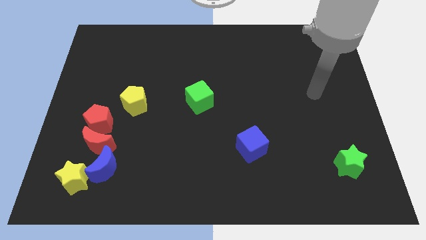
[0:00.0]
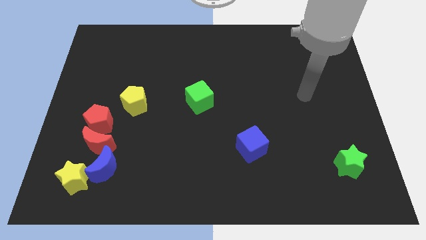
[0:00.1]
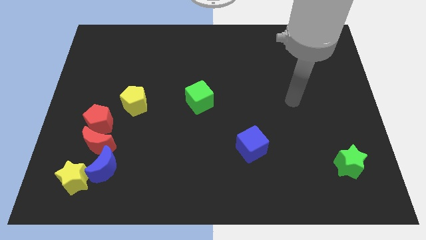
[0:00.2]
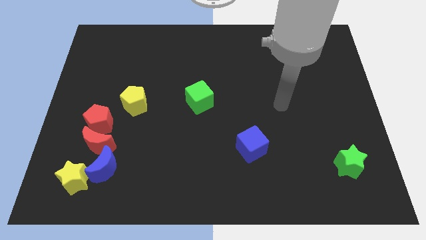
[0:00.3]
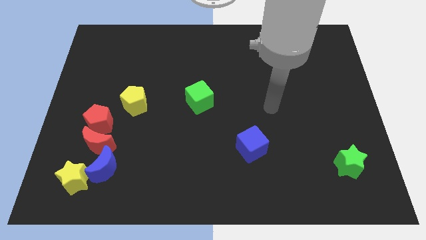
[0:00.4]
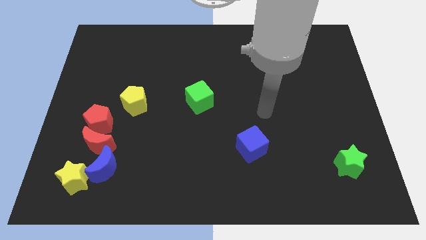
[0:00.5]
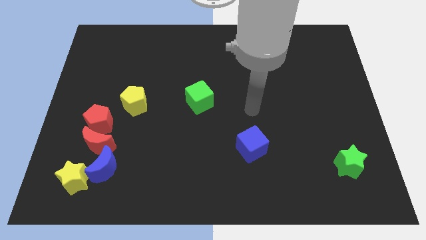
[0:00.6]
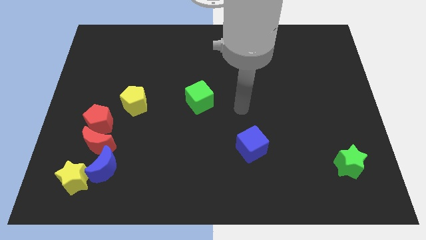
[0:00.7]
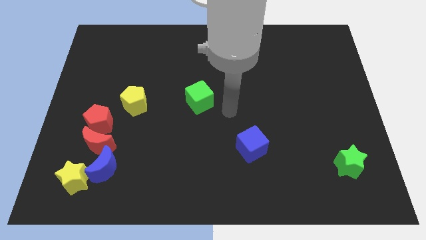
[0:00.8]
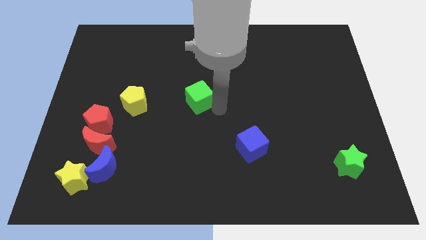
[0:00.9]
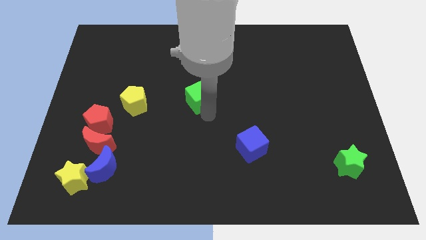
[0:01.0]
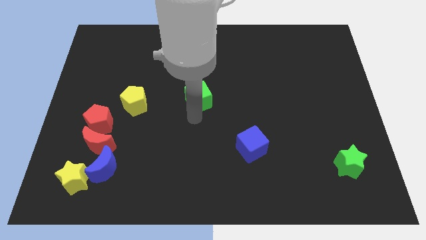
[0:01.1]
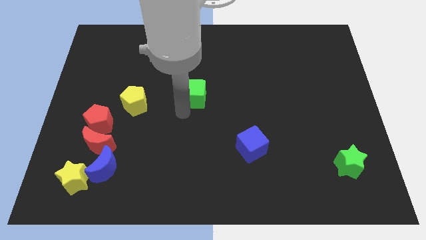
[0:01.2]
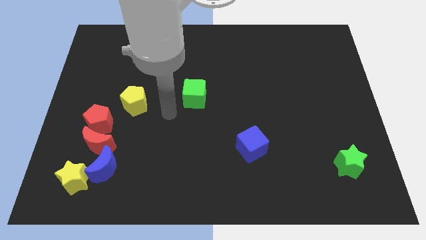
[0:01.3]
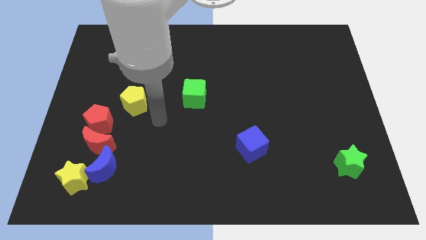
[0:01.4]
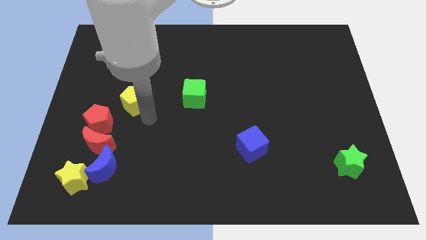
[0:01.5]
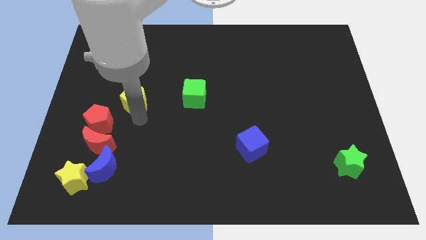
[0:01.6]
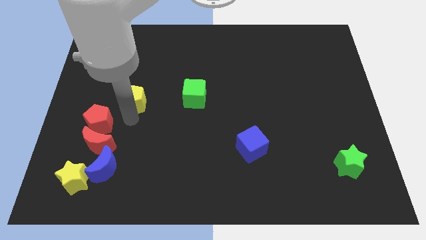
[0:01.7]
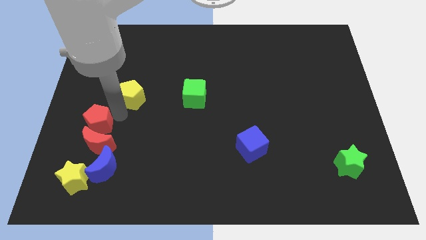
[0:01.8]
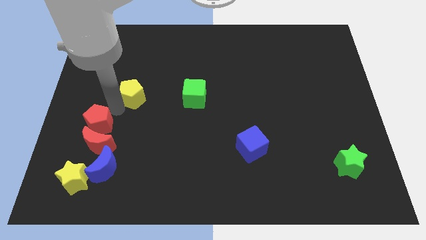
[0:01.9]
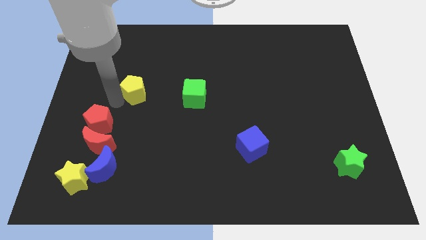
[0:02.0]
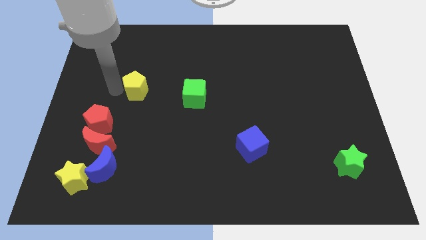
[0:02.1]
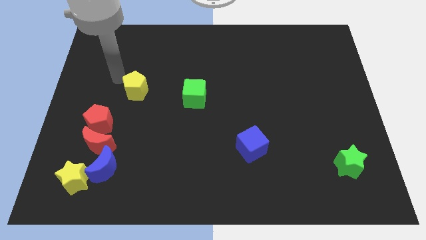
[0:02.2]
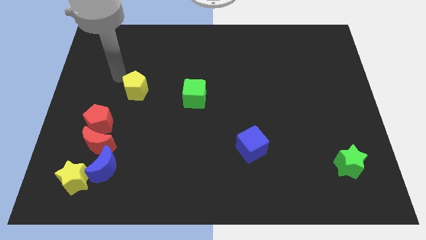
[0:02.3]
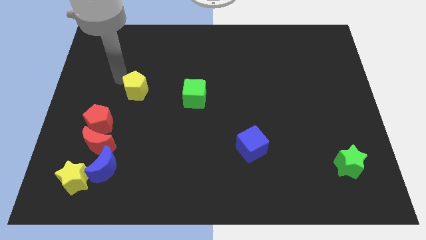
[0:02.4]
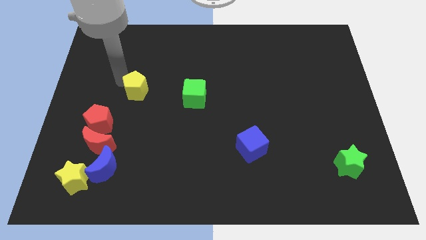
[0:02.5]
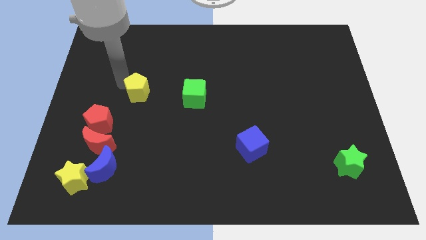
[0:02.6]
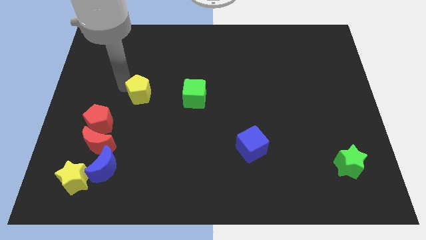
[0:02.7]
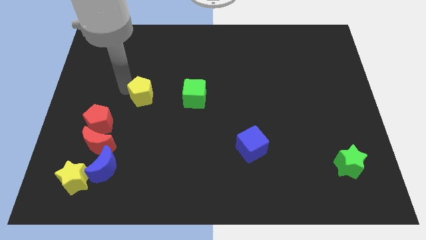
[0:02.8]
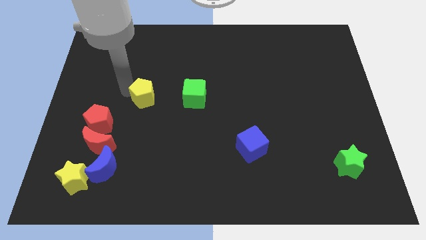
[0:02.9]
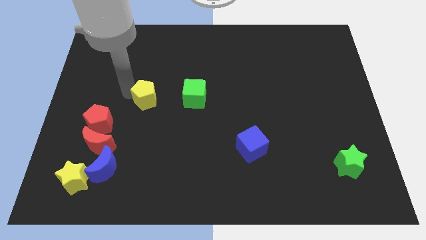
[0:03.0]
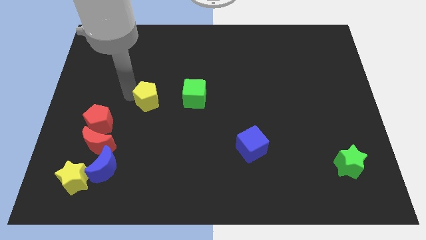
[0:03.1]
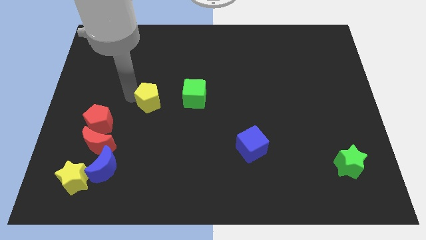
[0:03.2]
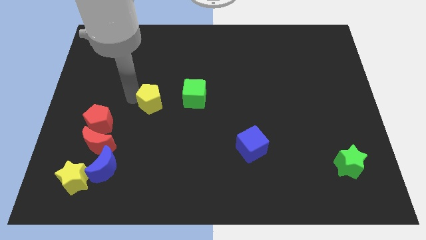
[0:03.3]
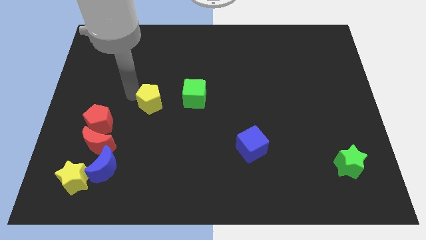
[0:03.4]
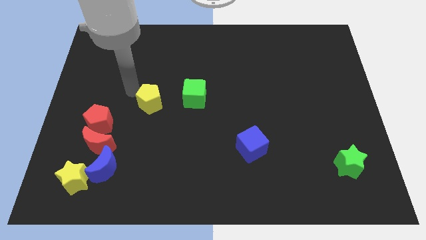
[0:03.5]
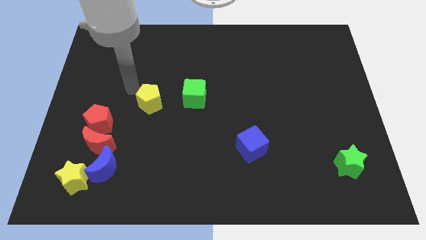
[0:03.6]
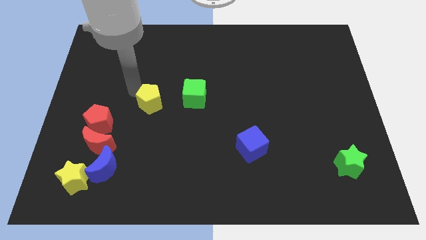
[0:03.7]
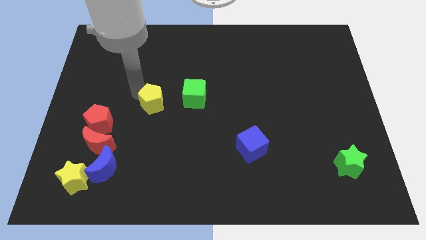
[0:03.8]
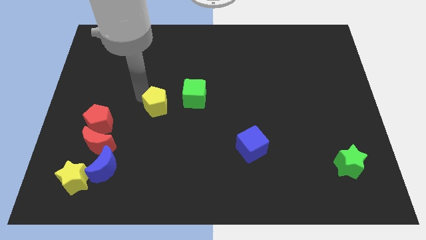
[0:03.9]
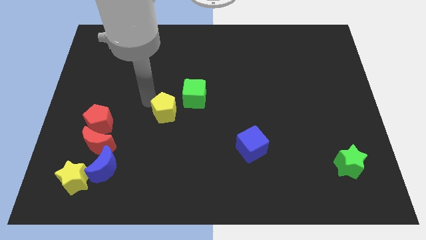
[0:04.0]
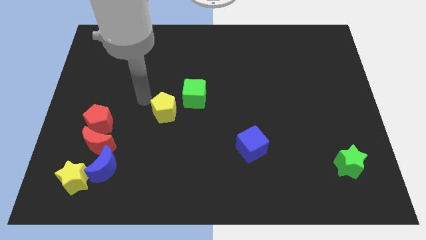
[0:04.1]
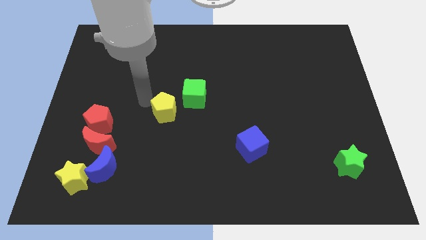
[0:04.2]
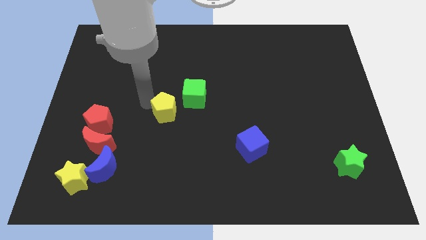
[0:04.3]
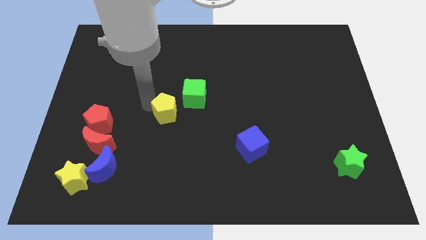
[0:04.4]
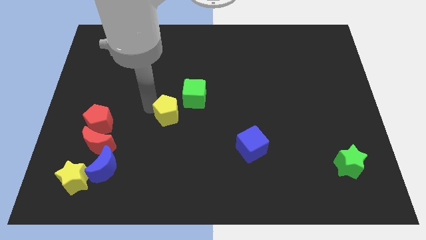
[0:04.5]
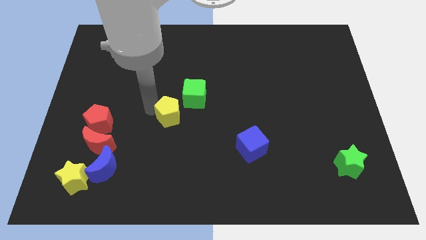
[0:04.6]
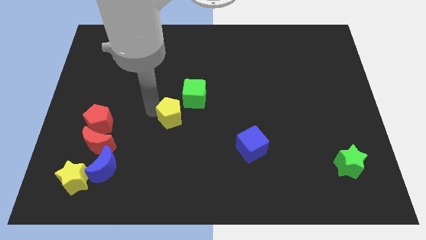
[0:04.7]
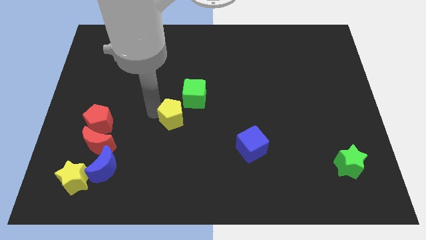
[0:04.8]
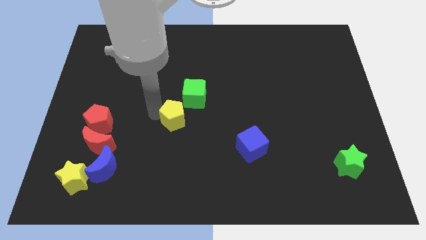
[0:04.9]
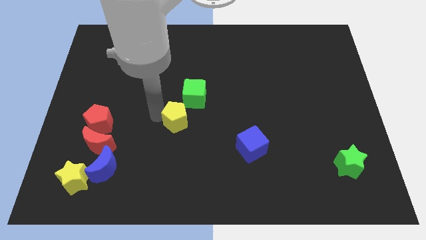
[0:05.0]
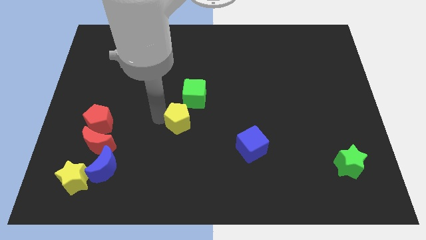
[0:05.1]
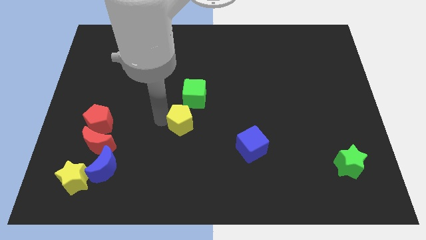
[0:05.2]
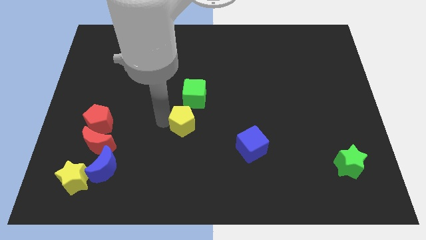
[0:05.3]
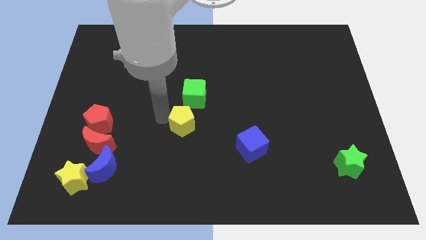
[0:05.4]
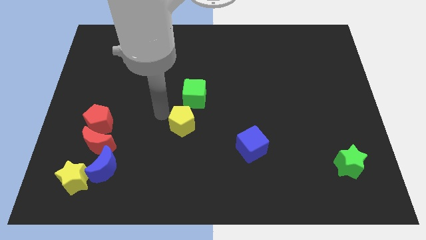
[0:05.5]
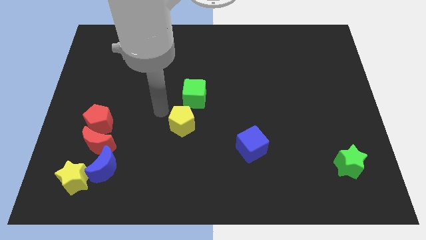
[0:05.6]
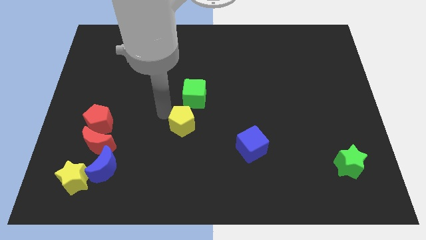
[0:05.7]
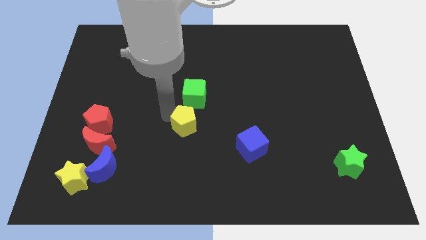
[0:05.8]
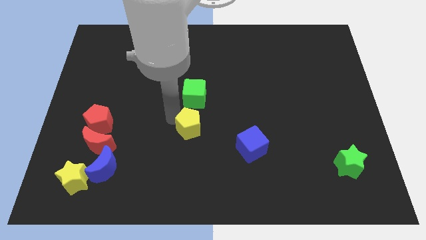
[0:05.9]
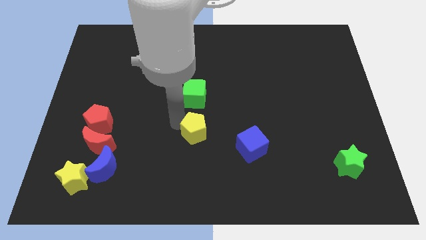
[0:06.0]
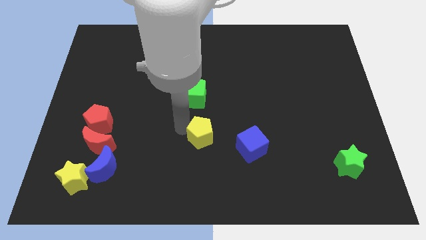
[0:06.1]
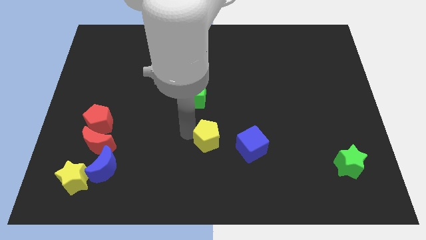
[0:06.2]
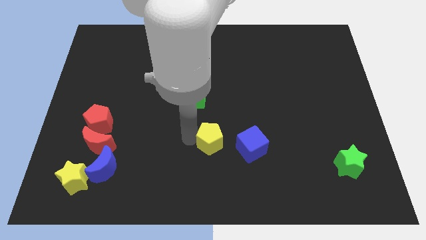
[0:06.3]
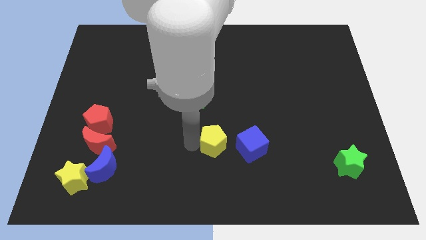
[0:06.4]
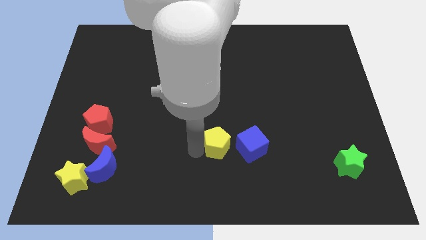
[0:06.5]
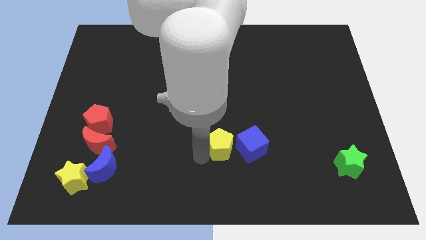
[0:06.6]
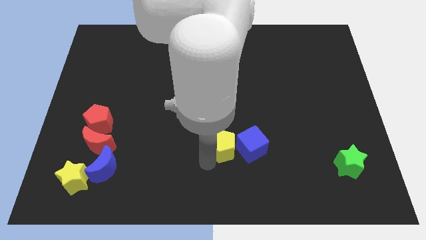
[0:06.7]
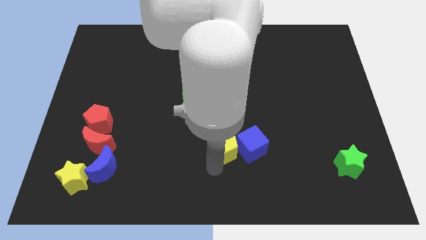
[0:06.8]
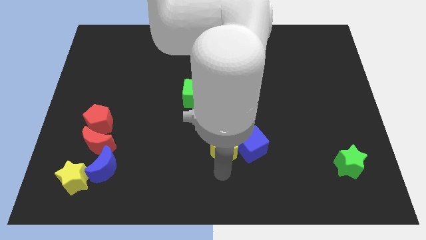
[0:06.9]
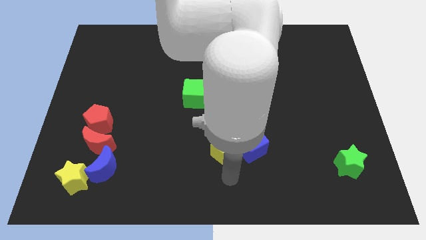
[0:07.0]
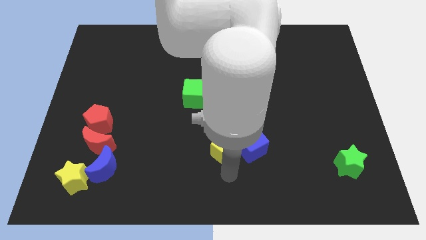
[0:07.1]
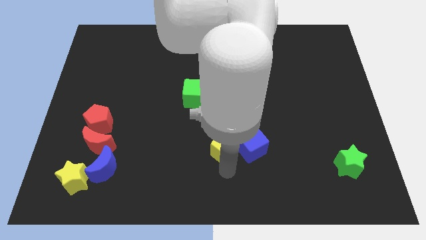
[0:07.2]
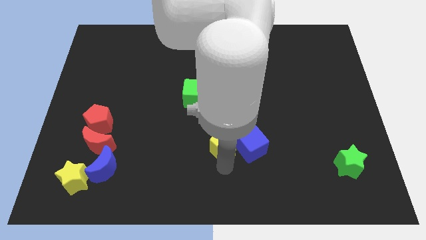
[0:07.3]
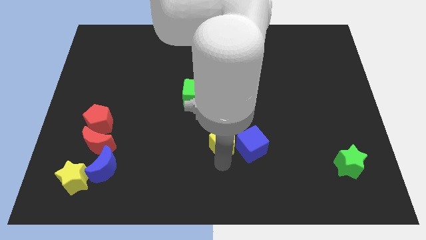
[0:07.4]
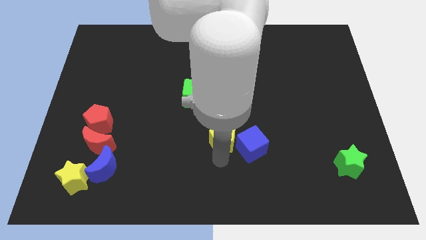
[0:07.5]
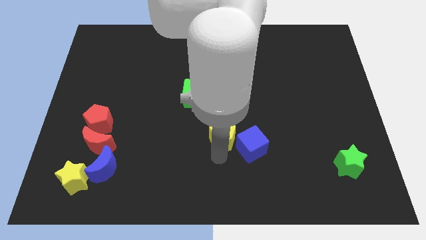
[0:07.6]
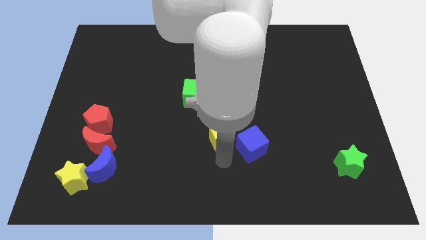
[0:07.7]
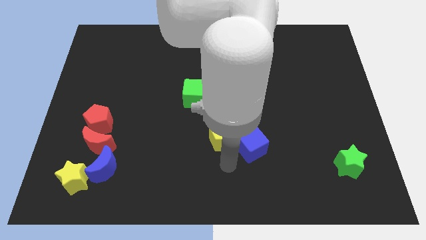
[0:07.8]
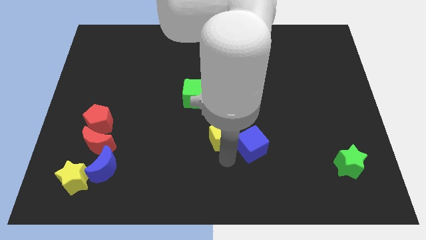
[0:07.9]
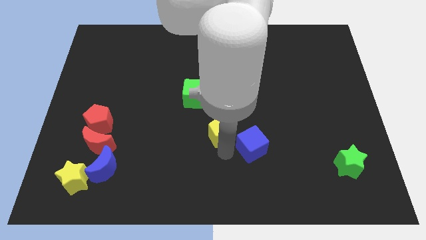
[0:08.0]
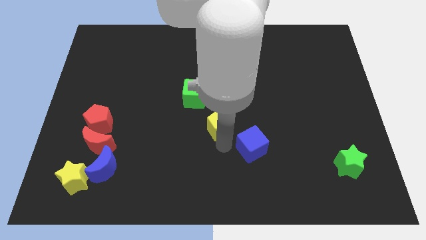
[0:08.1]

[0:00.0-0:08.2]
move the yellow pentagon diagonally down and to the right of the green cube
